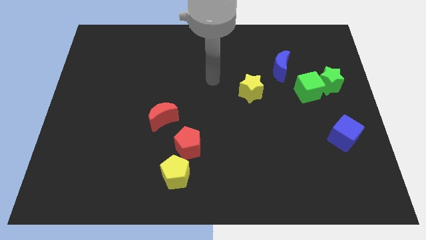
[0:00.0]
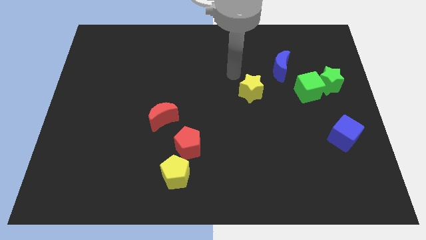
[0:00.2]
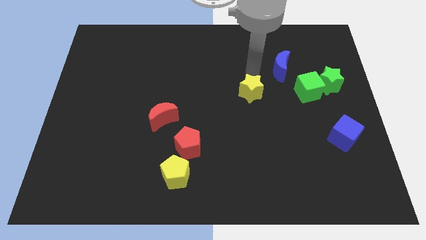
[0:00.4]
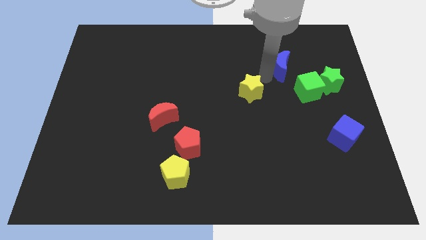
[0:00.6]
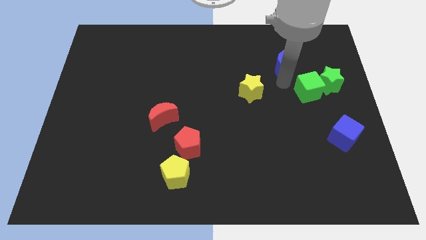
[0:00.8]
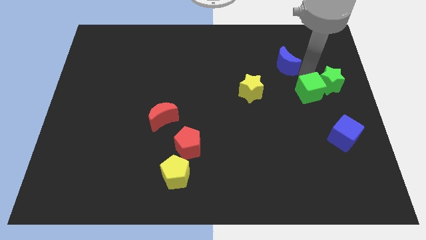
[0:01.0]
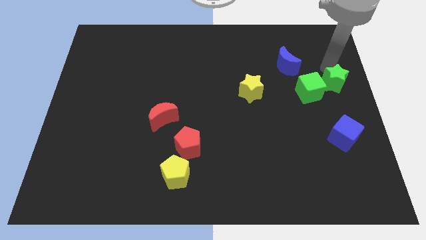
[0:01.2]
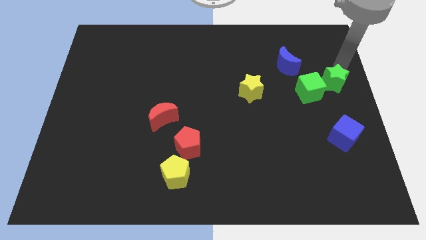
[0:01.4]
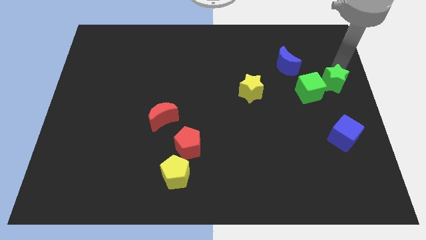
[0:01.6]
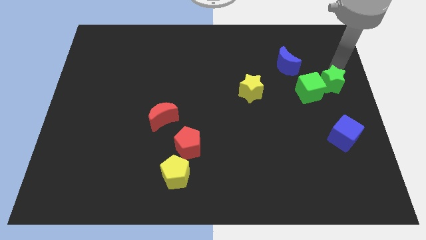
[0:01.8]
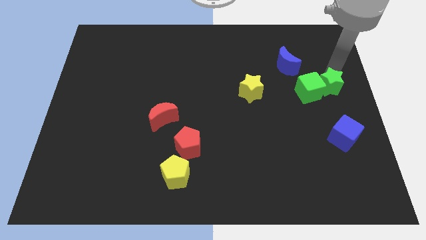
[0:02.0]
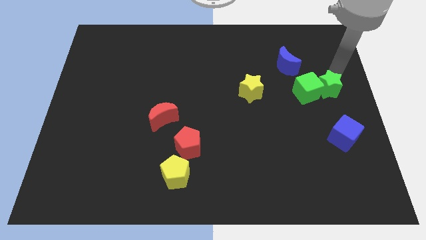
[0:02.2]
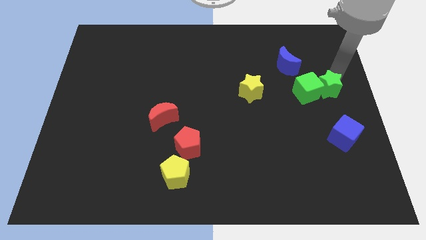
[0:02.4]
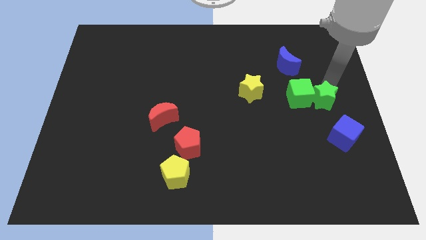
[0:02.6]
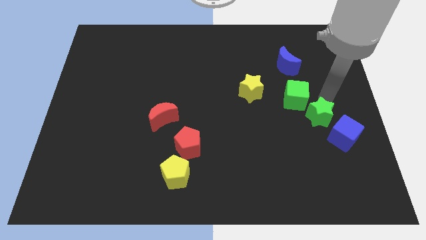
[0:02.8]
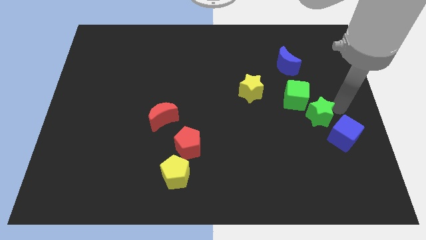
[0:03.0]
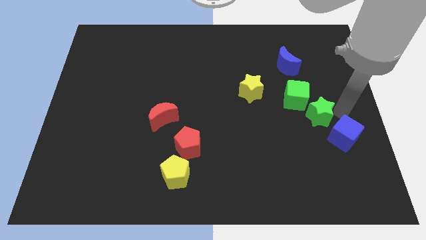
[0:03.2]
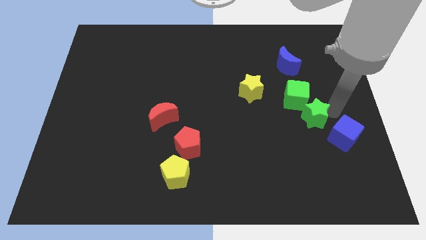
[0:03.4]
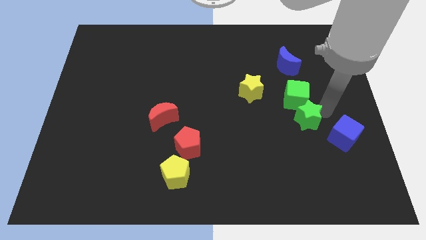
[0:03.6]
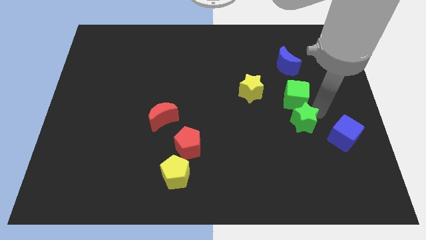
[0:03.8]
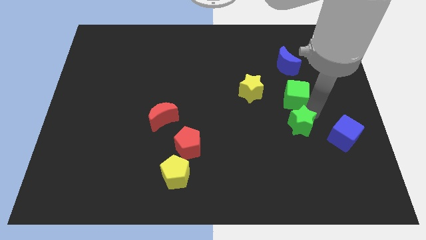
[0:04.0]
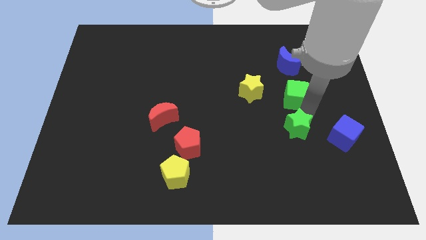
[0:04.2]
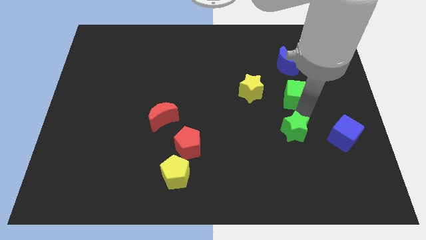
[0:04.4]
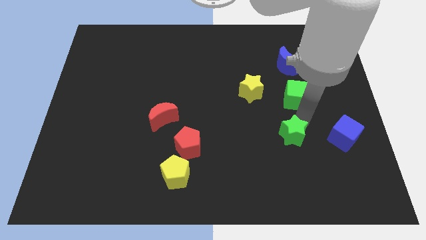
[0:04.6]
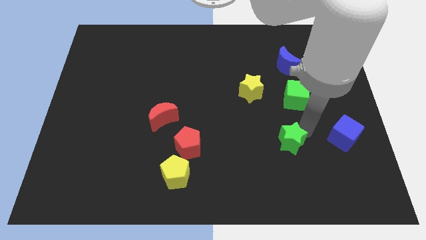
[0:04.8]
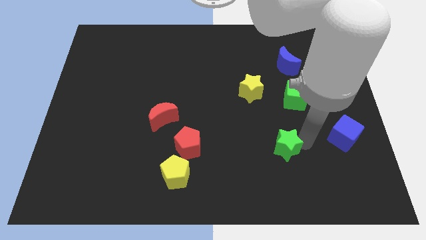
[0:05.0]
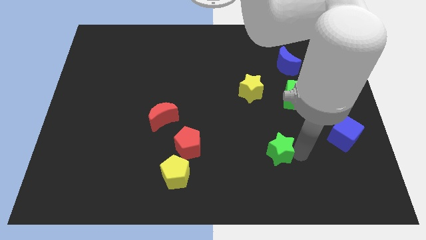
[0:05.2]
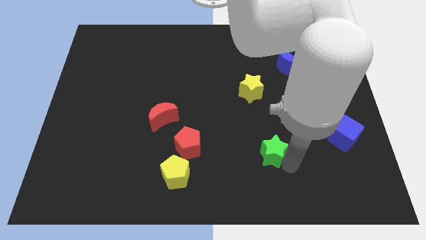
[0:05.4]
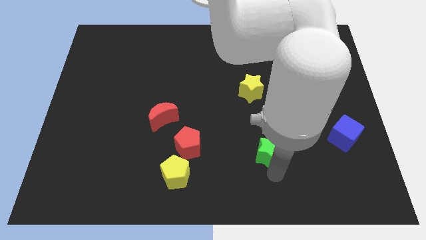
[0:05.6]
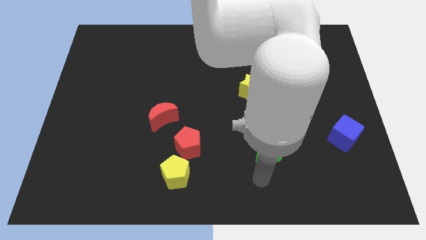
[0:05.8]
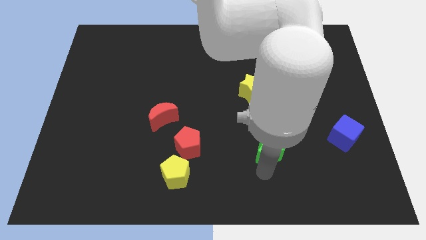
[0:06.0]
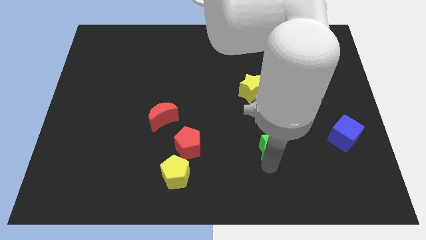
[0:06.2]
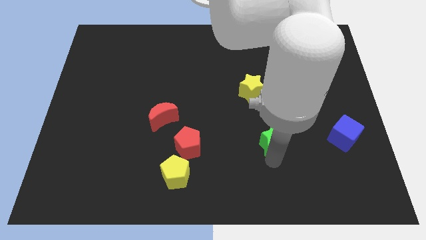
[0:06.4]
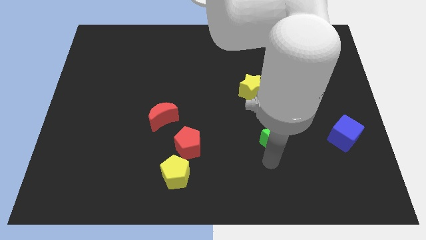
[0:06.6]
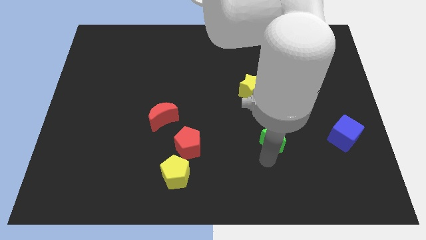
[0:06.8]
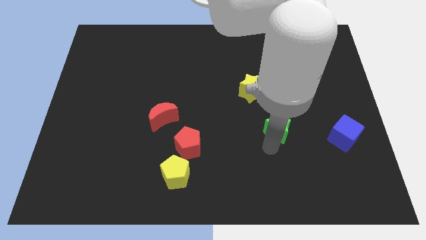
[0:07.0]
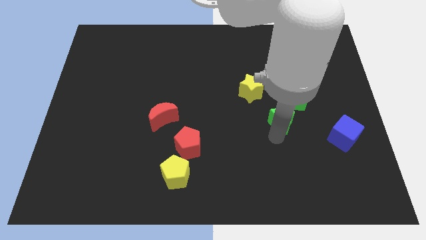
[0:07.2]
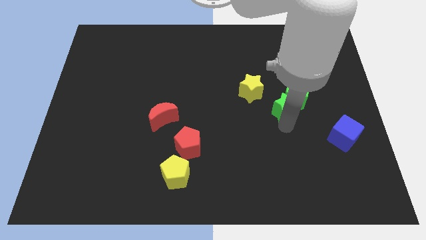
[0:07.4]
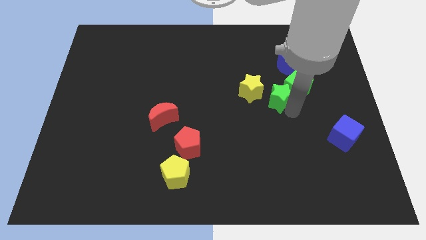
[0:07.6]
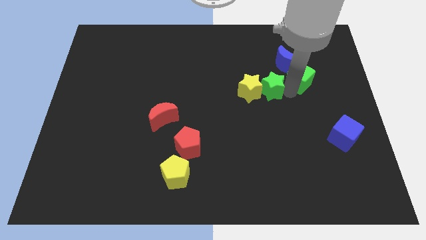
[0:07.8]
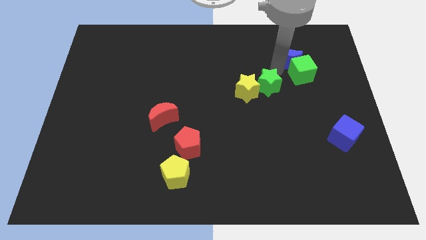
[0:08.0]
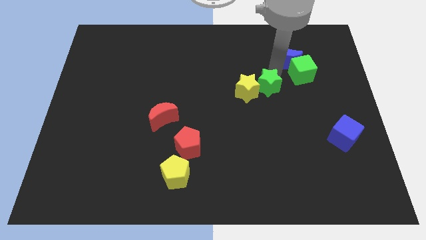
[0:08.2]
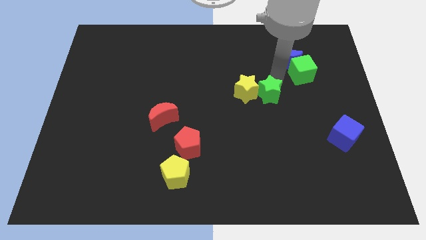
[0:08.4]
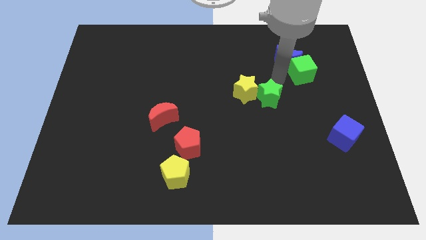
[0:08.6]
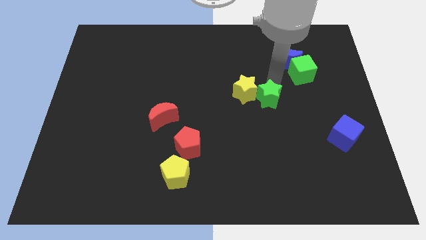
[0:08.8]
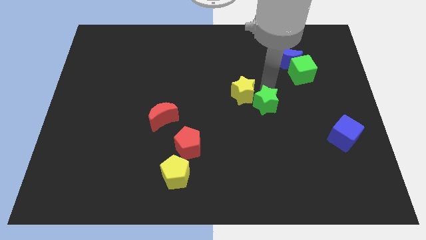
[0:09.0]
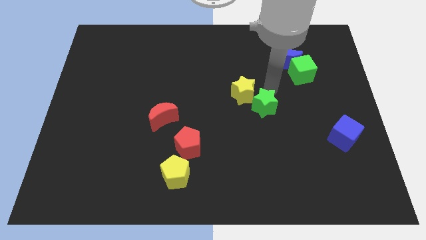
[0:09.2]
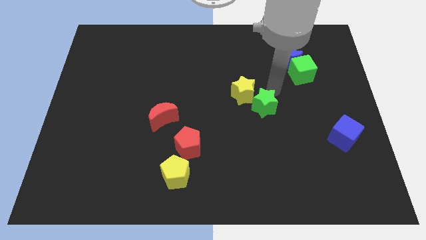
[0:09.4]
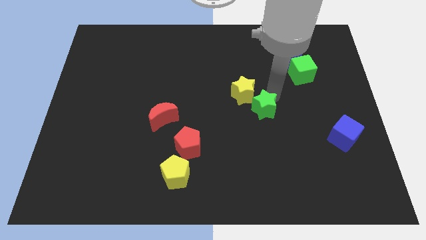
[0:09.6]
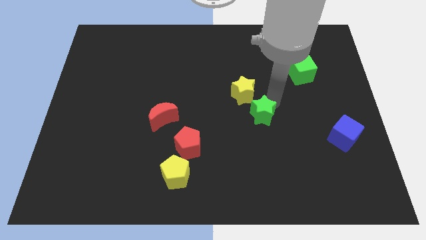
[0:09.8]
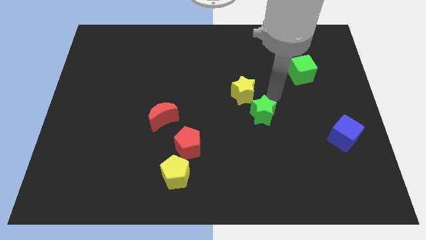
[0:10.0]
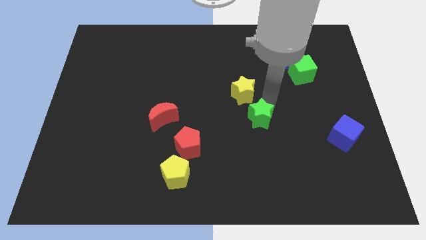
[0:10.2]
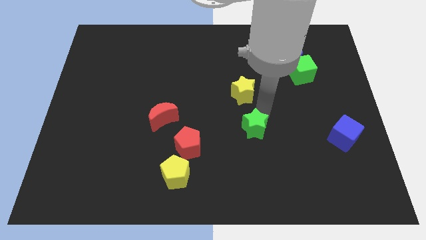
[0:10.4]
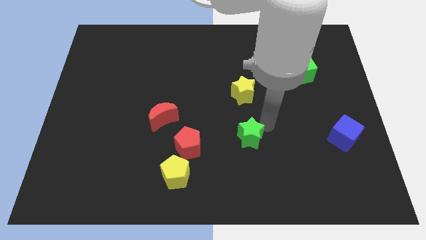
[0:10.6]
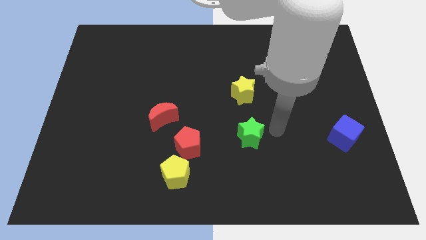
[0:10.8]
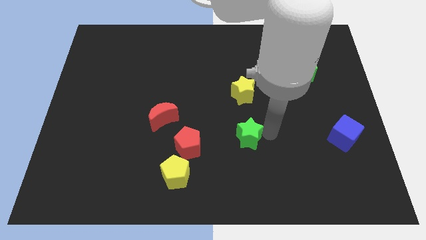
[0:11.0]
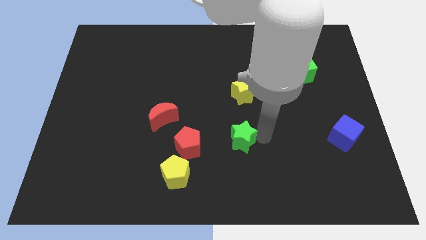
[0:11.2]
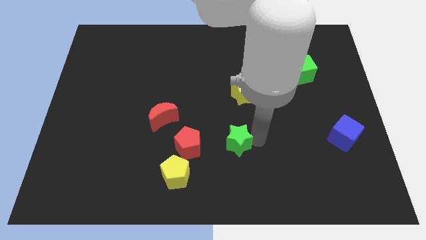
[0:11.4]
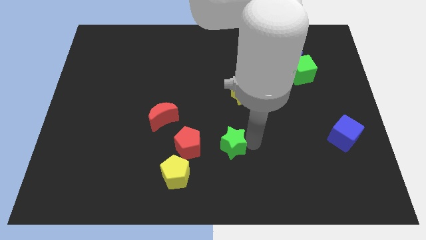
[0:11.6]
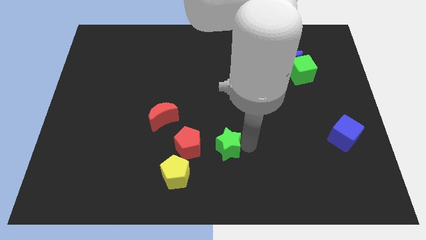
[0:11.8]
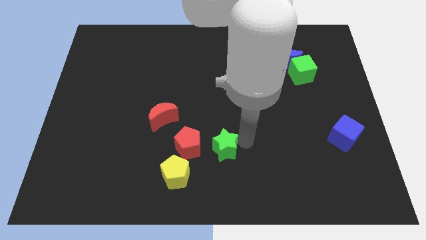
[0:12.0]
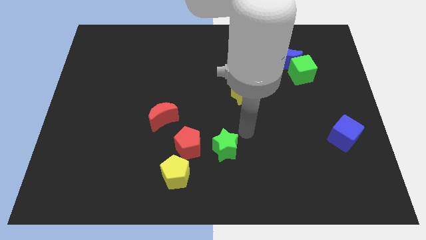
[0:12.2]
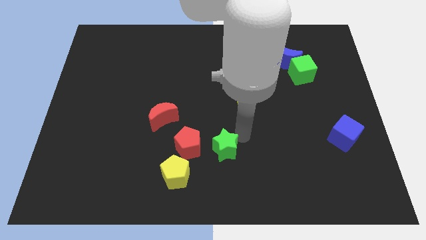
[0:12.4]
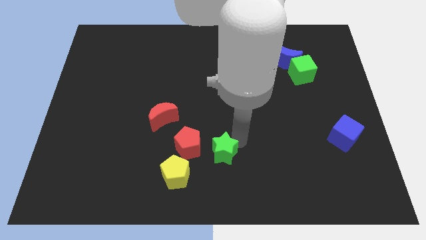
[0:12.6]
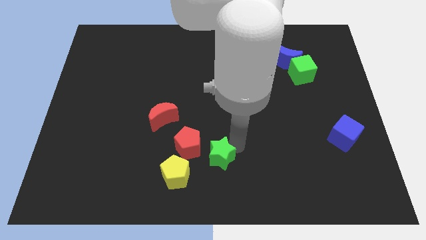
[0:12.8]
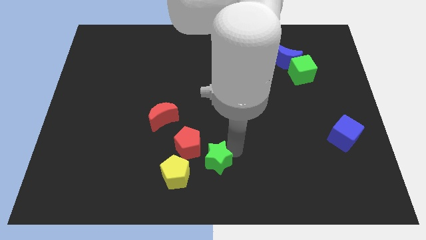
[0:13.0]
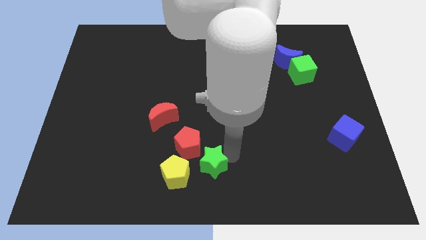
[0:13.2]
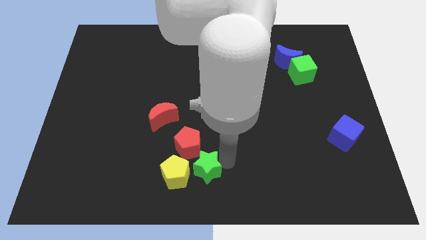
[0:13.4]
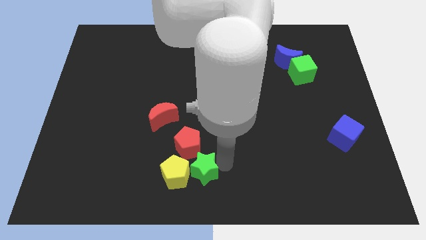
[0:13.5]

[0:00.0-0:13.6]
slide the green star towards the yellow pentagon
